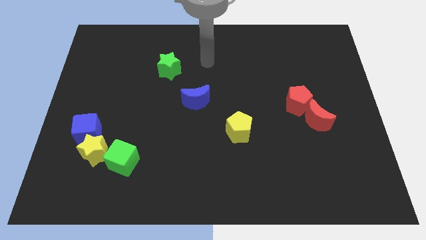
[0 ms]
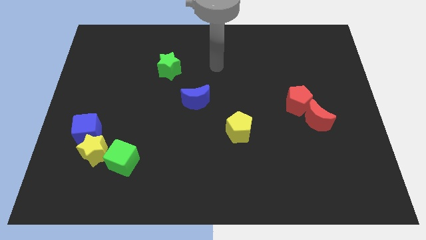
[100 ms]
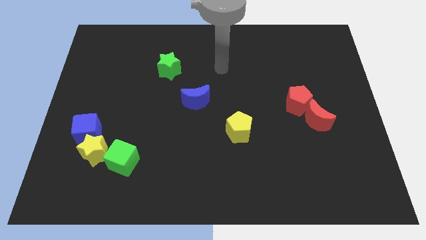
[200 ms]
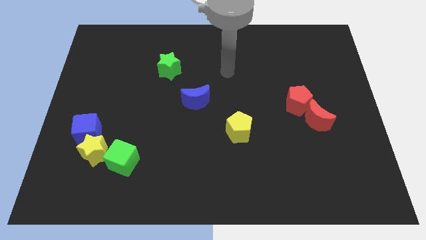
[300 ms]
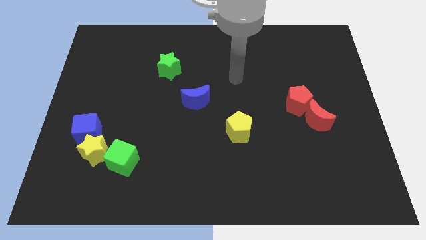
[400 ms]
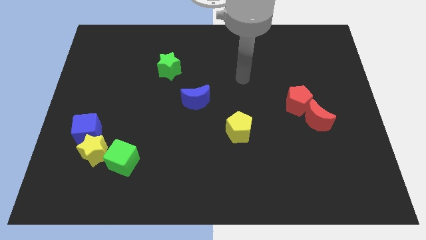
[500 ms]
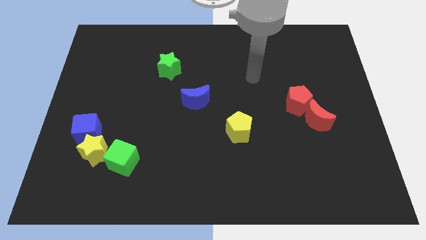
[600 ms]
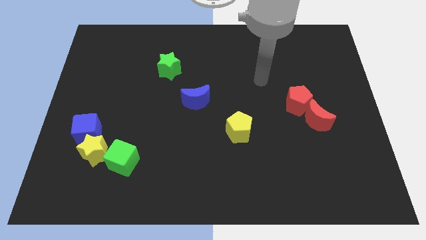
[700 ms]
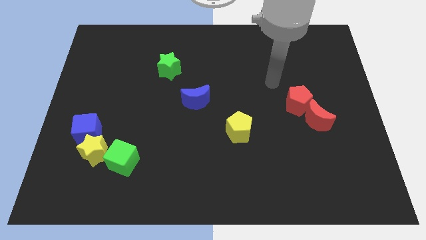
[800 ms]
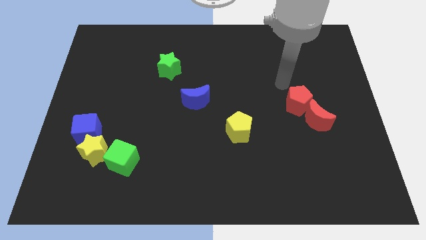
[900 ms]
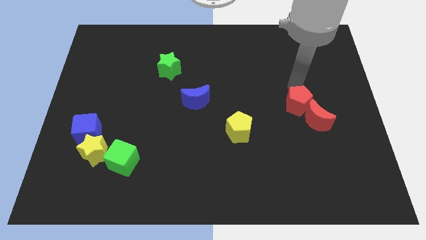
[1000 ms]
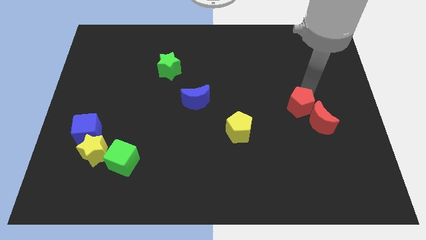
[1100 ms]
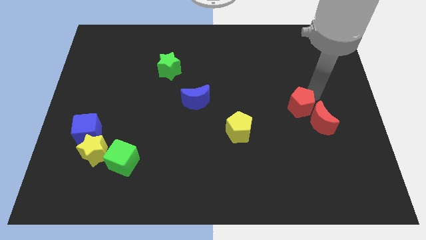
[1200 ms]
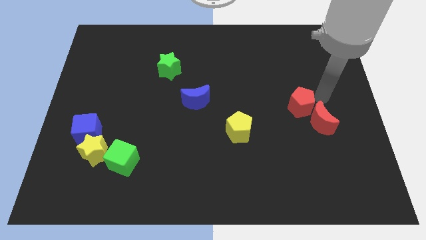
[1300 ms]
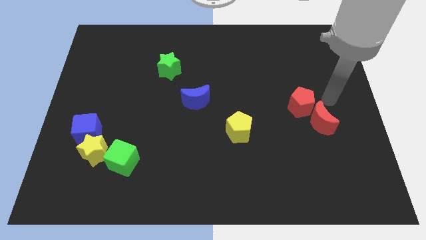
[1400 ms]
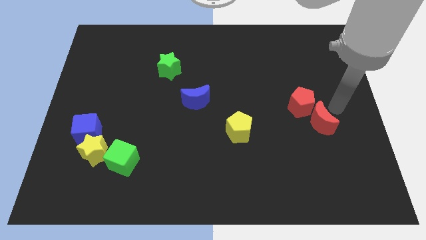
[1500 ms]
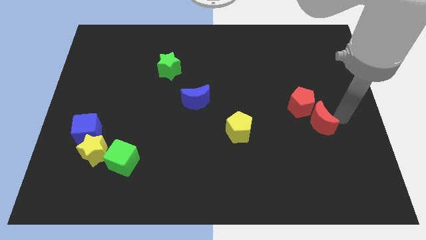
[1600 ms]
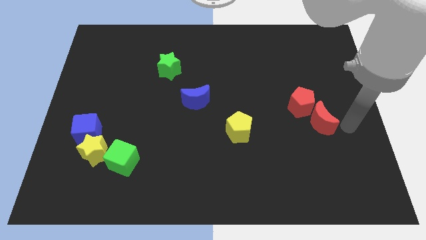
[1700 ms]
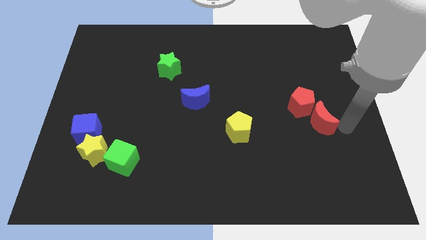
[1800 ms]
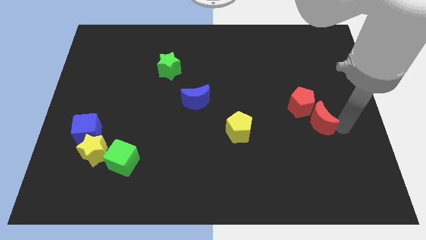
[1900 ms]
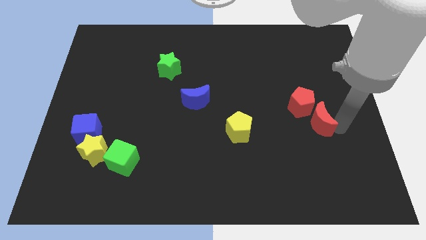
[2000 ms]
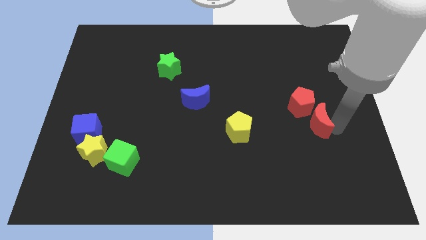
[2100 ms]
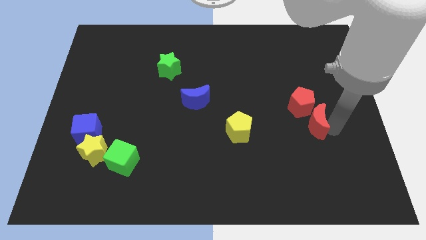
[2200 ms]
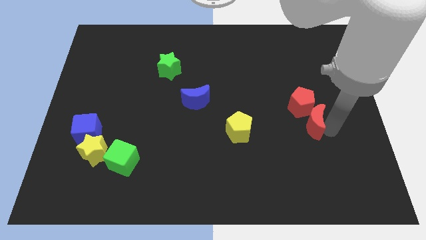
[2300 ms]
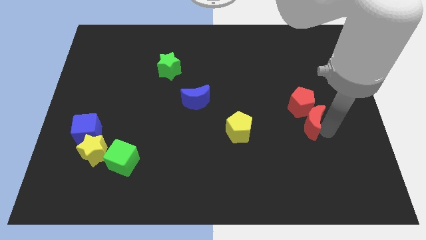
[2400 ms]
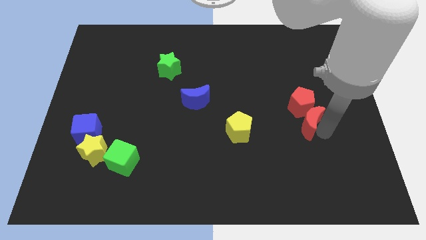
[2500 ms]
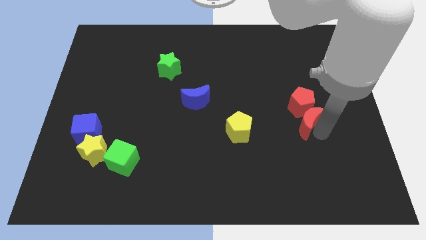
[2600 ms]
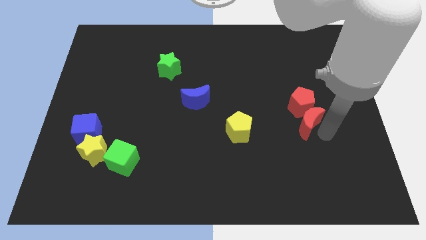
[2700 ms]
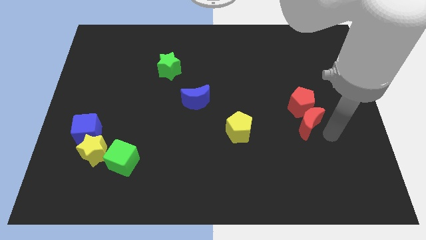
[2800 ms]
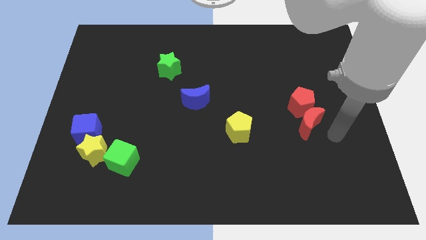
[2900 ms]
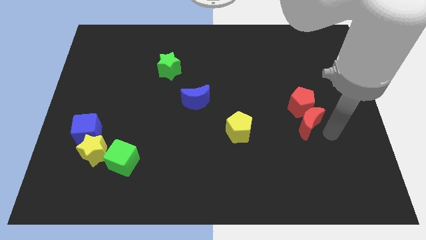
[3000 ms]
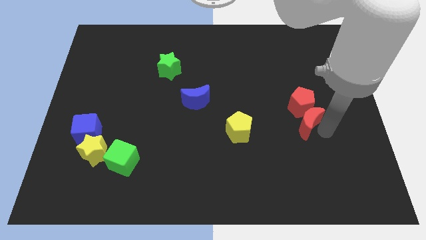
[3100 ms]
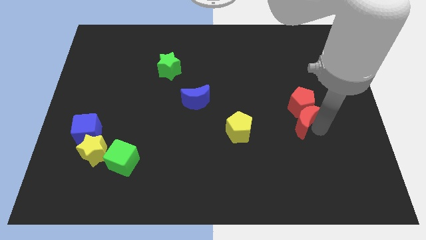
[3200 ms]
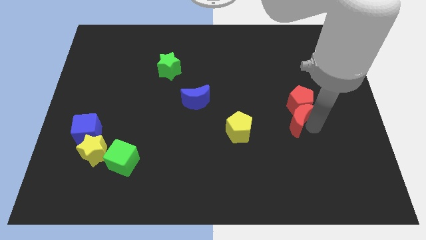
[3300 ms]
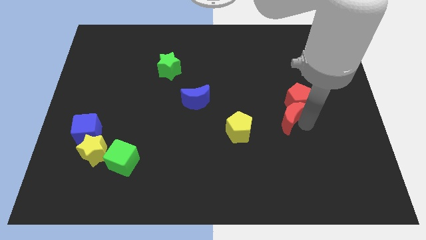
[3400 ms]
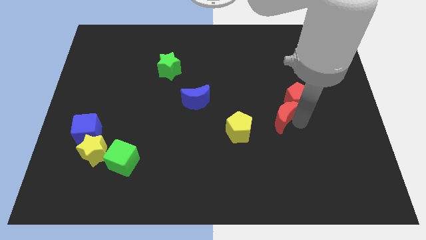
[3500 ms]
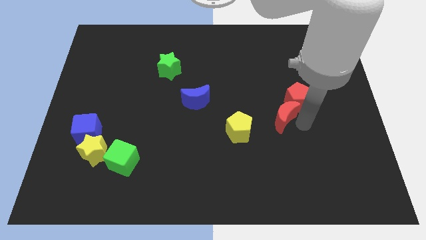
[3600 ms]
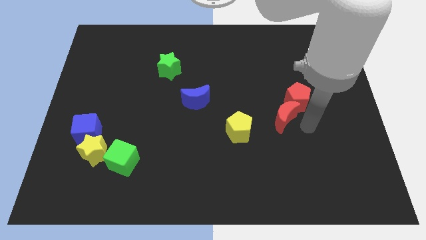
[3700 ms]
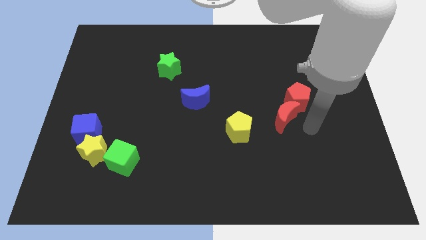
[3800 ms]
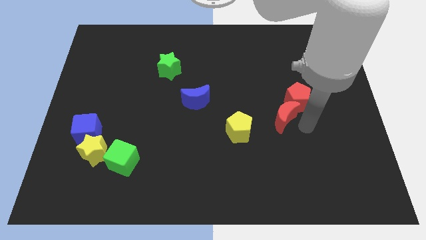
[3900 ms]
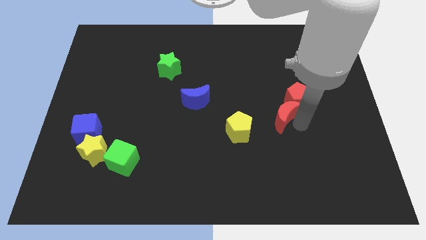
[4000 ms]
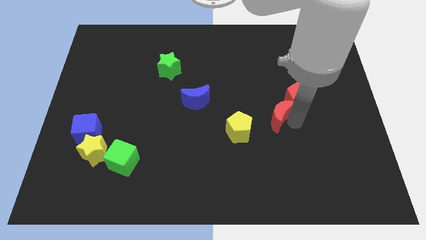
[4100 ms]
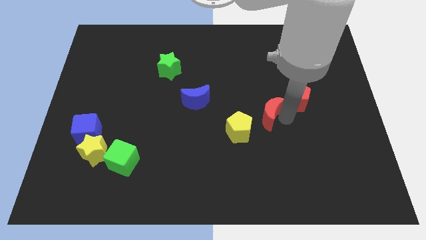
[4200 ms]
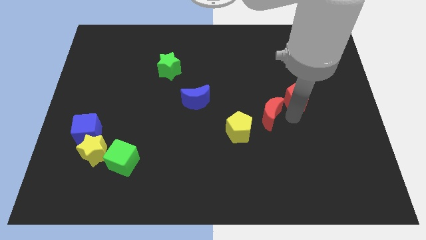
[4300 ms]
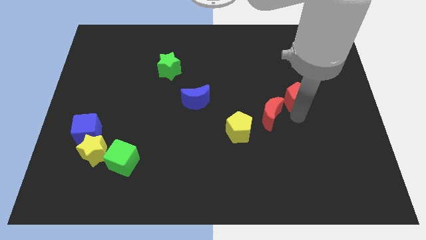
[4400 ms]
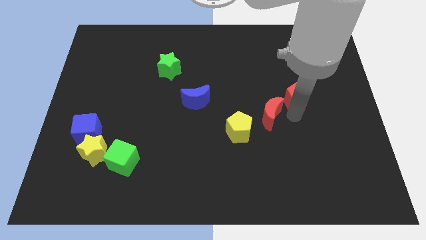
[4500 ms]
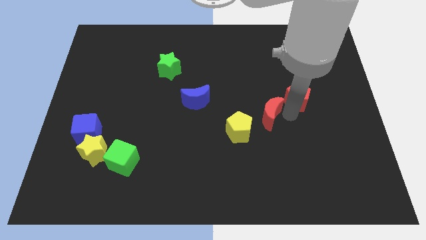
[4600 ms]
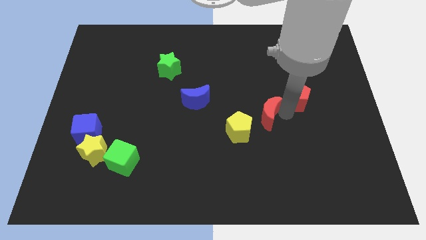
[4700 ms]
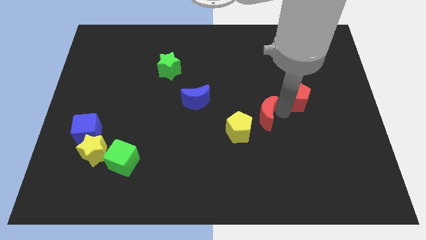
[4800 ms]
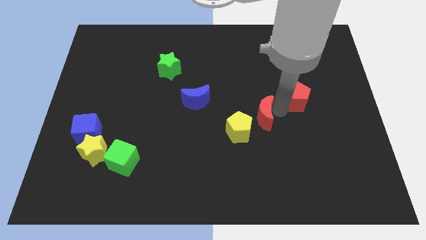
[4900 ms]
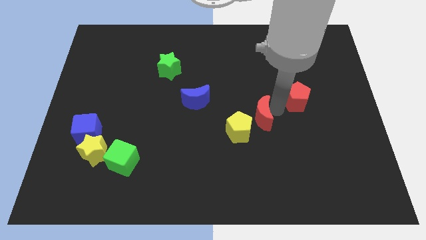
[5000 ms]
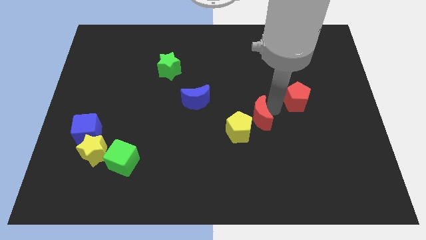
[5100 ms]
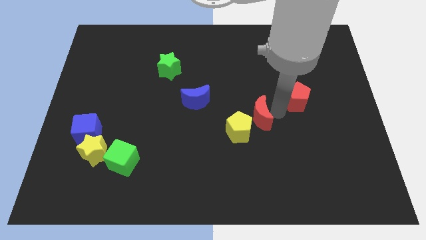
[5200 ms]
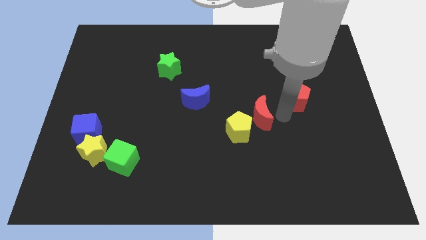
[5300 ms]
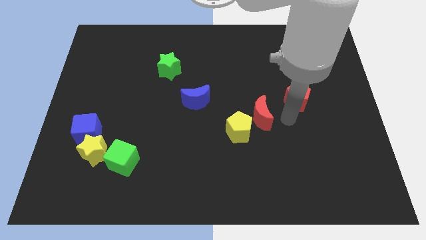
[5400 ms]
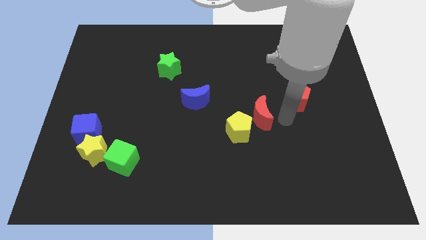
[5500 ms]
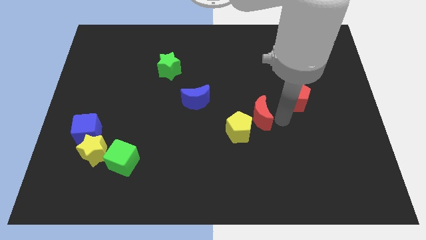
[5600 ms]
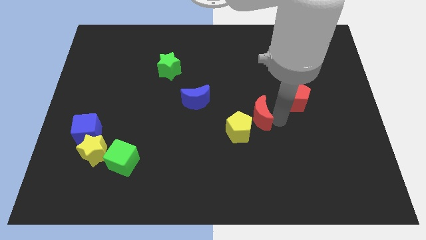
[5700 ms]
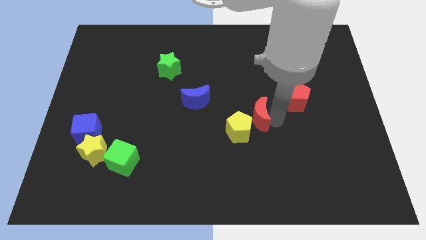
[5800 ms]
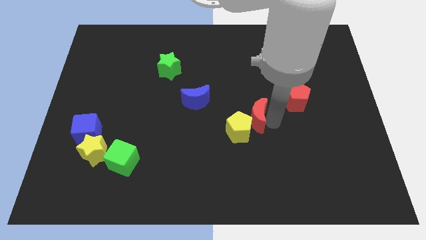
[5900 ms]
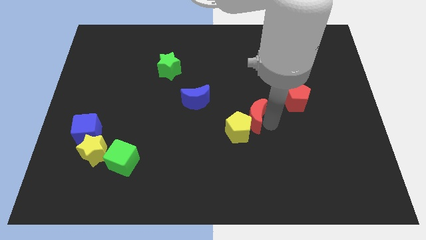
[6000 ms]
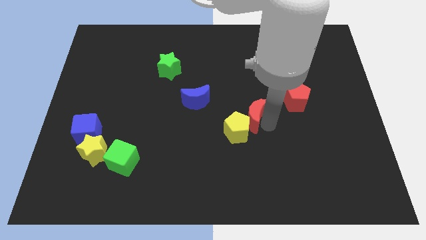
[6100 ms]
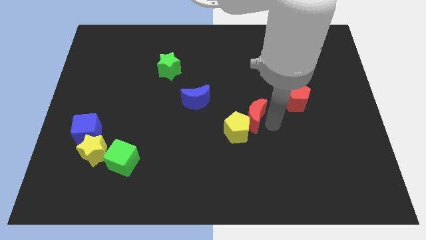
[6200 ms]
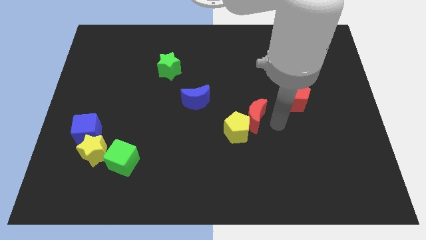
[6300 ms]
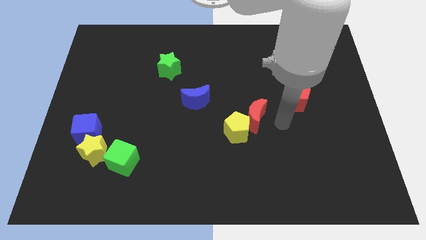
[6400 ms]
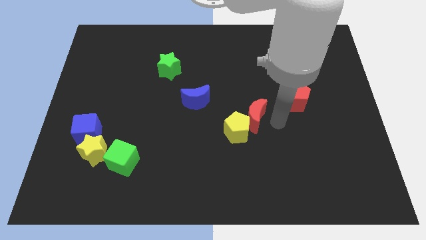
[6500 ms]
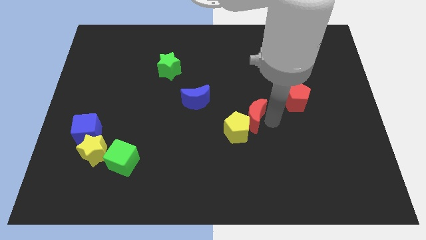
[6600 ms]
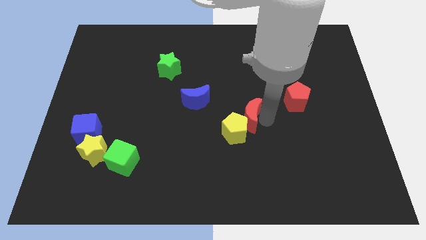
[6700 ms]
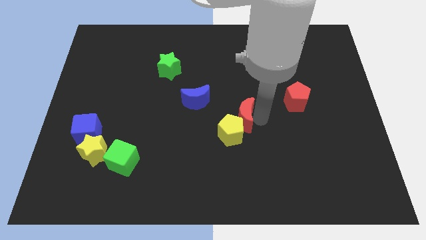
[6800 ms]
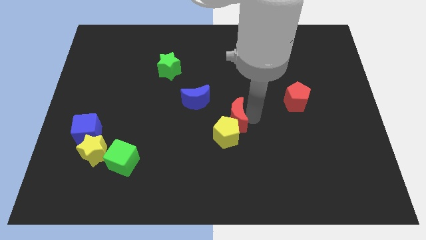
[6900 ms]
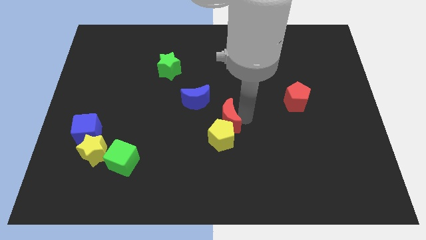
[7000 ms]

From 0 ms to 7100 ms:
slide the red moon to the left

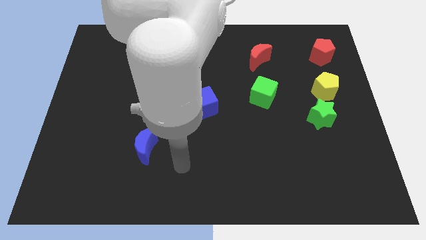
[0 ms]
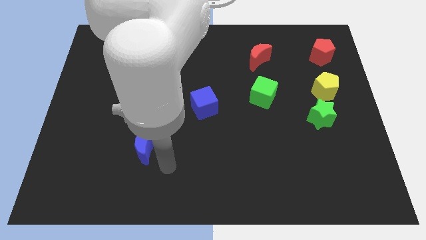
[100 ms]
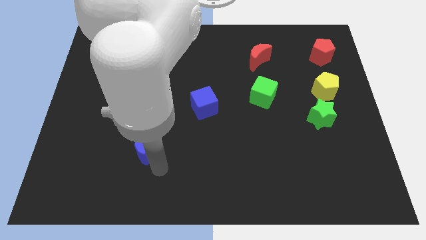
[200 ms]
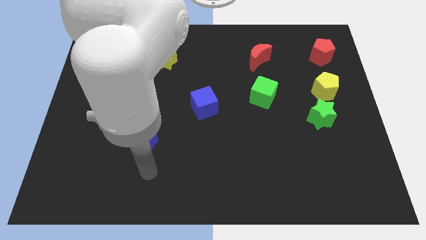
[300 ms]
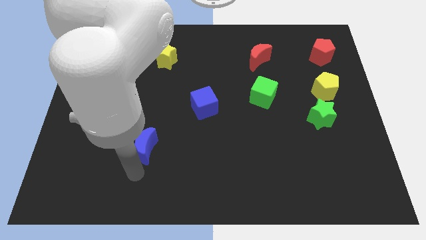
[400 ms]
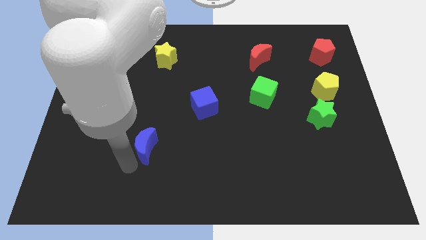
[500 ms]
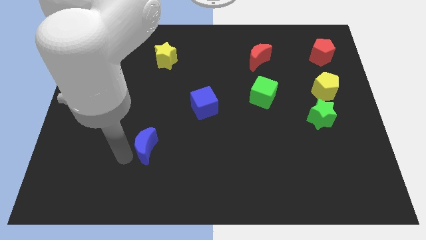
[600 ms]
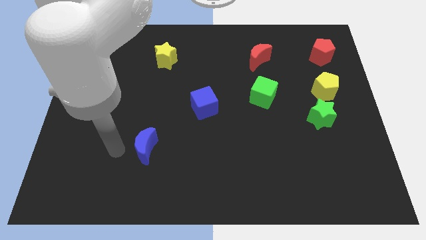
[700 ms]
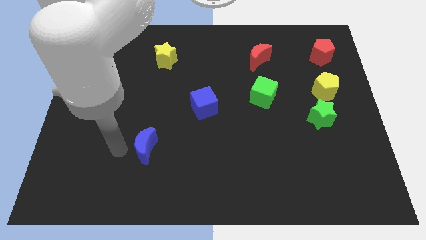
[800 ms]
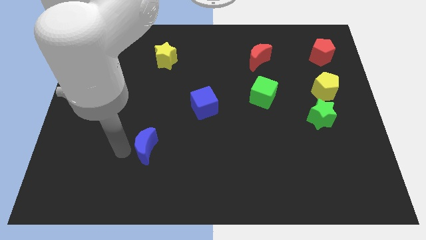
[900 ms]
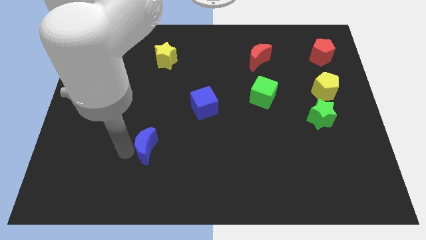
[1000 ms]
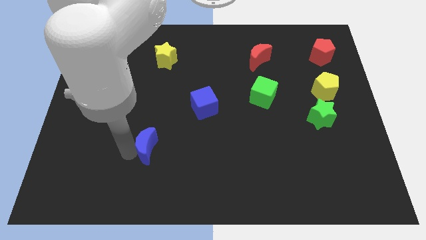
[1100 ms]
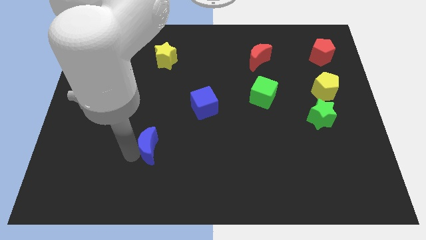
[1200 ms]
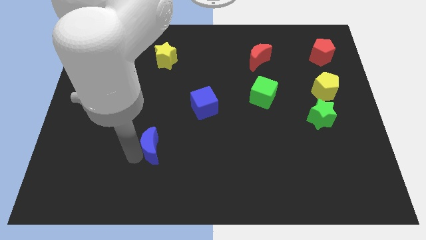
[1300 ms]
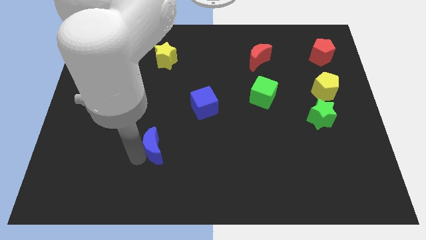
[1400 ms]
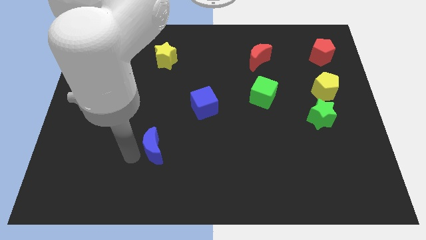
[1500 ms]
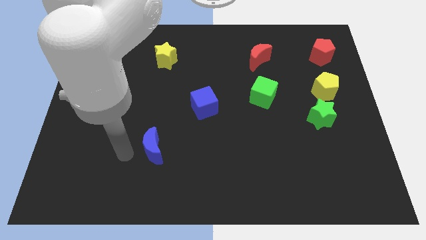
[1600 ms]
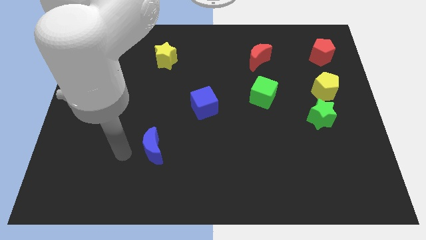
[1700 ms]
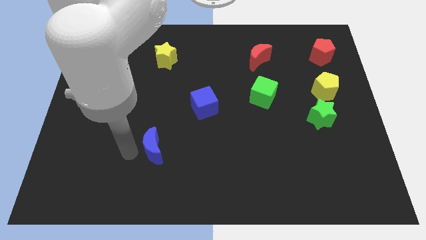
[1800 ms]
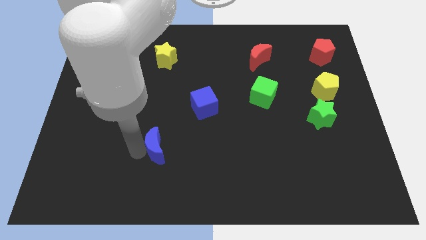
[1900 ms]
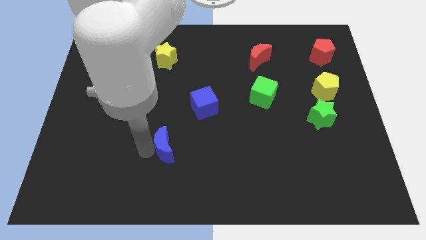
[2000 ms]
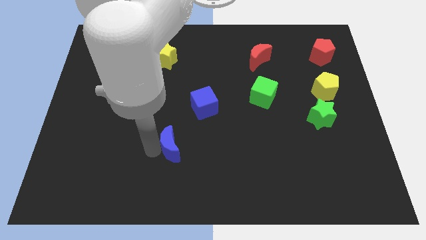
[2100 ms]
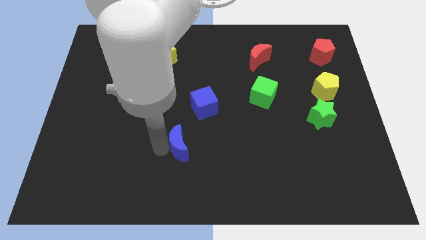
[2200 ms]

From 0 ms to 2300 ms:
slide the blue moon a little bit right
